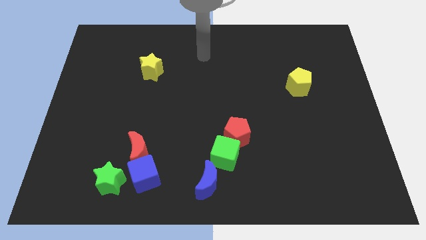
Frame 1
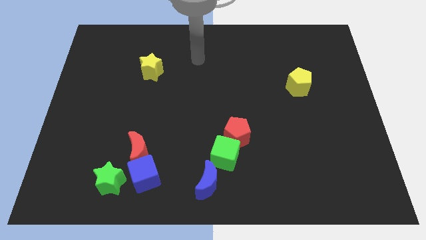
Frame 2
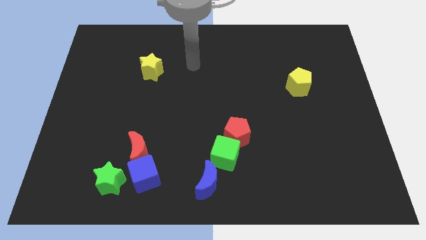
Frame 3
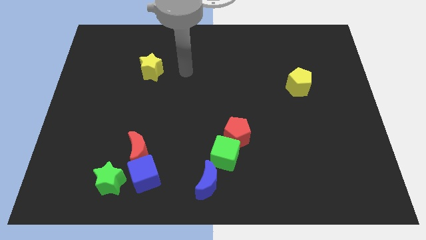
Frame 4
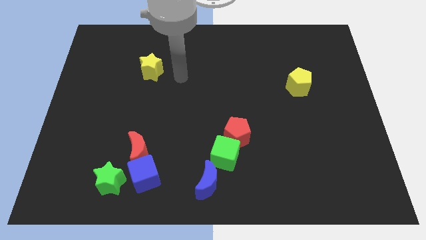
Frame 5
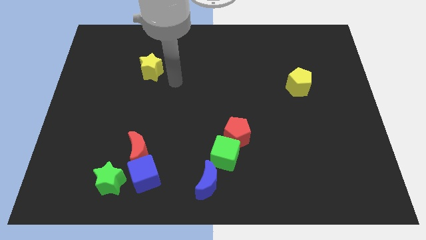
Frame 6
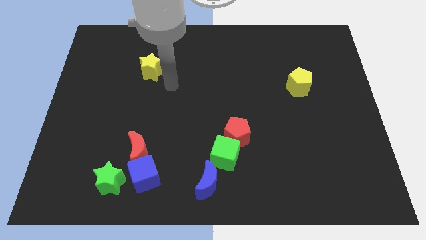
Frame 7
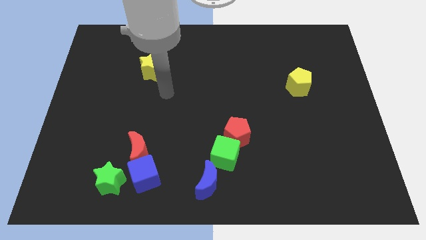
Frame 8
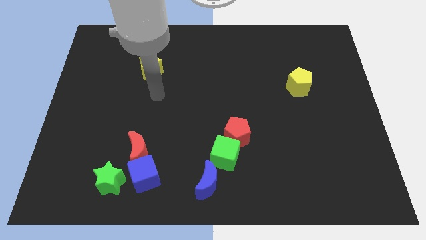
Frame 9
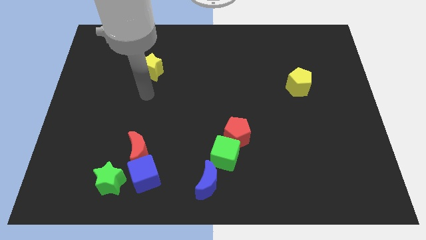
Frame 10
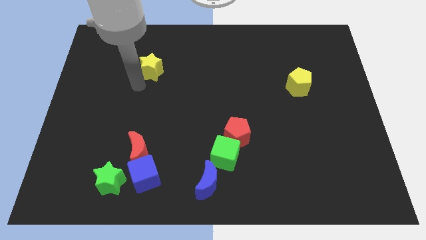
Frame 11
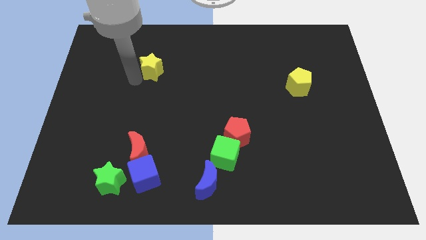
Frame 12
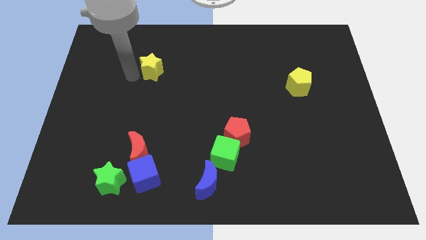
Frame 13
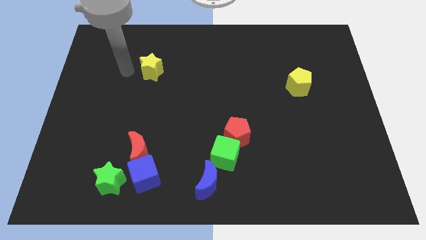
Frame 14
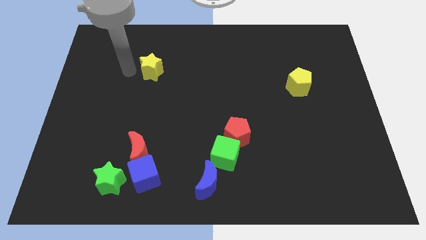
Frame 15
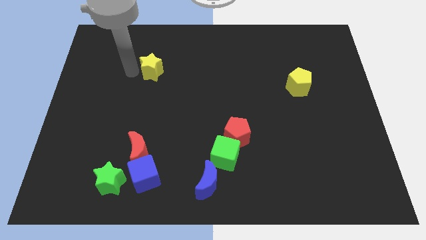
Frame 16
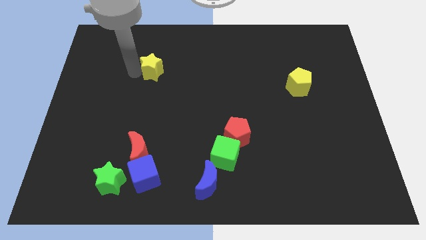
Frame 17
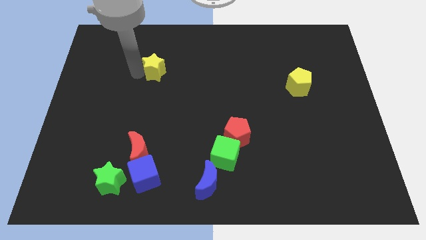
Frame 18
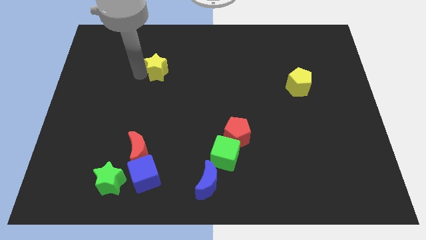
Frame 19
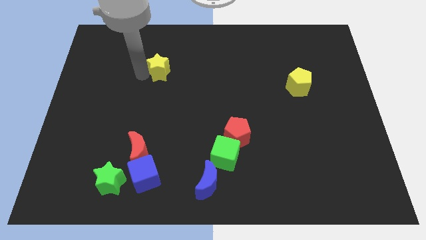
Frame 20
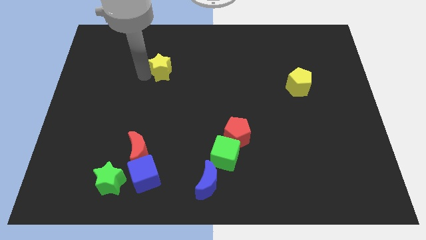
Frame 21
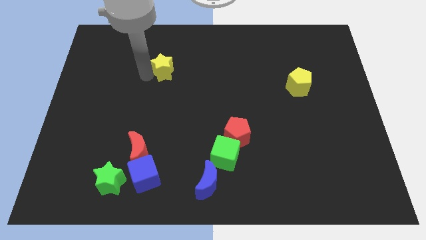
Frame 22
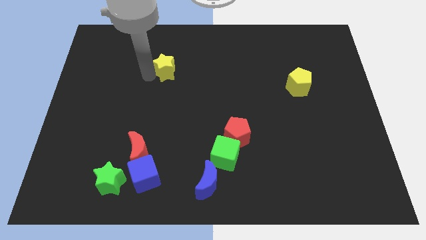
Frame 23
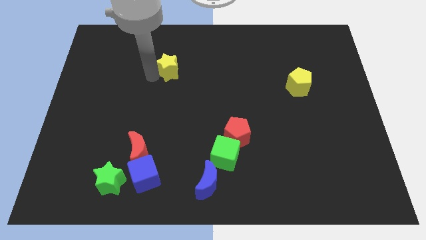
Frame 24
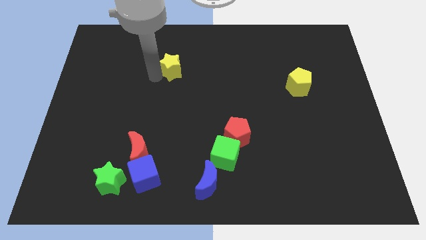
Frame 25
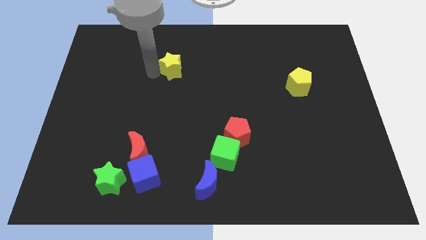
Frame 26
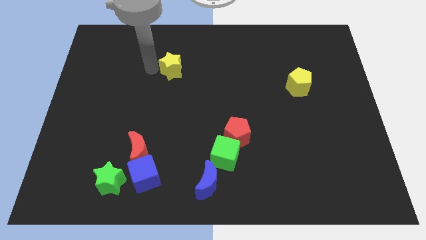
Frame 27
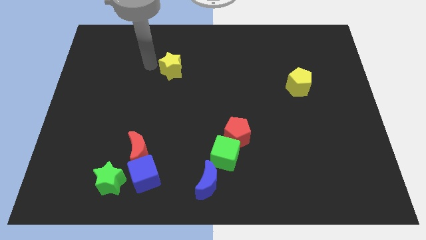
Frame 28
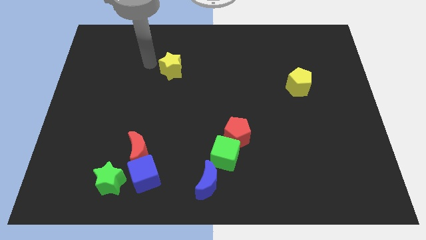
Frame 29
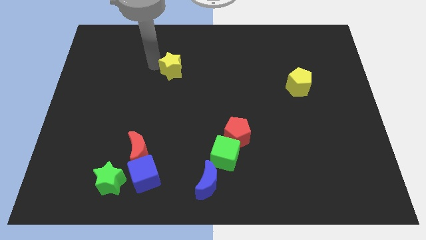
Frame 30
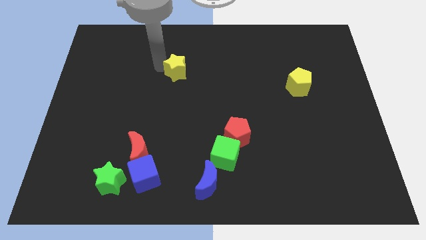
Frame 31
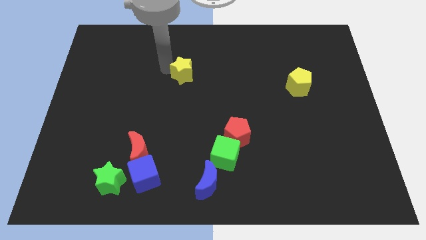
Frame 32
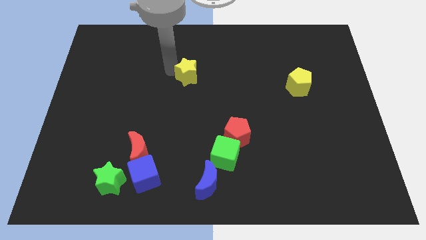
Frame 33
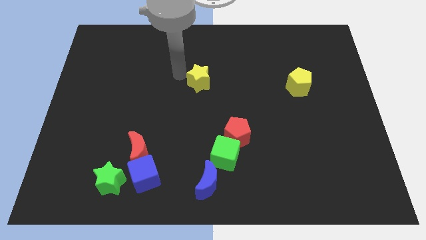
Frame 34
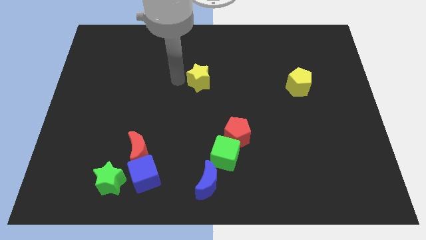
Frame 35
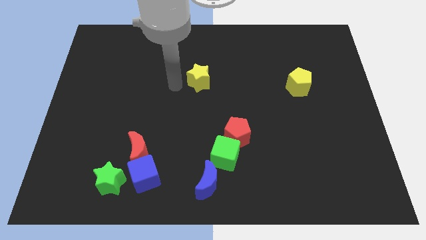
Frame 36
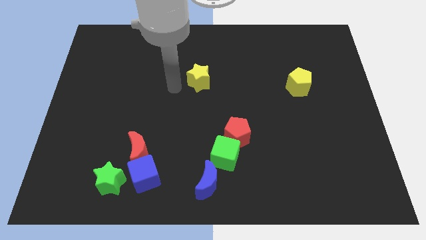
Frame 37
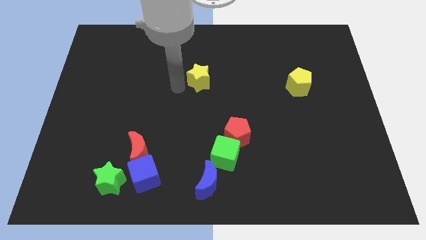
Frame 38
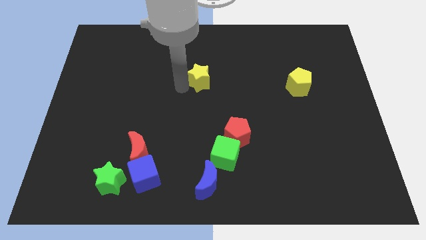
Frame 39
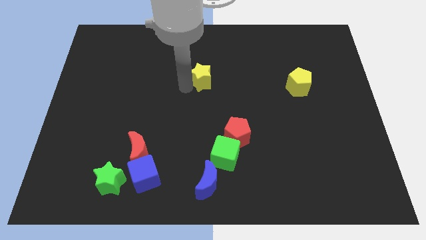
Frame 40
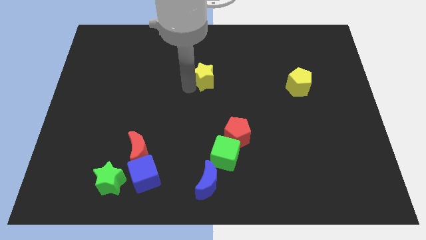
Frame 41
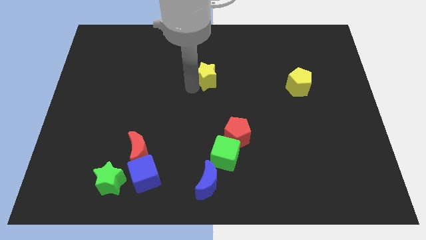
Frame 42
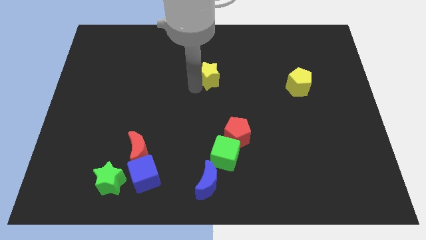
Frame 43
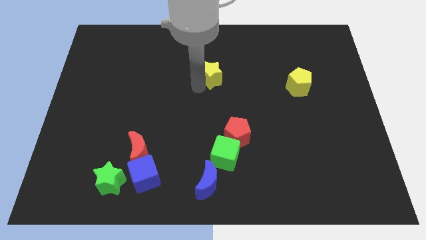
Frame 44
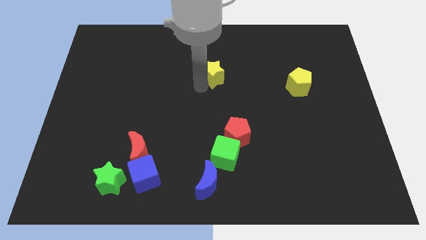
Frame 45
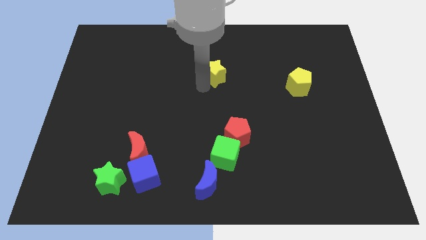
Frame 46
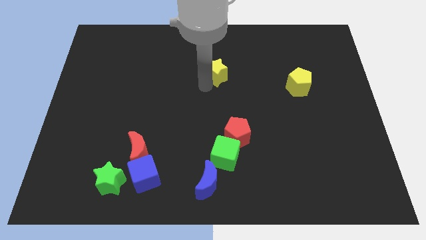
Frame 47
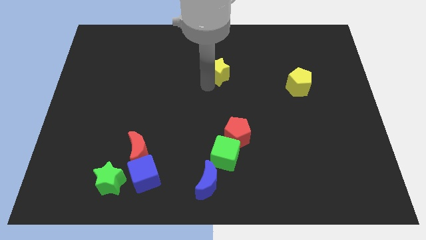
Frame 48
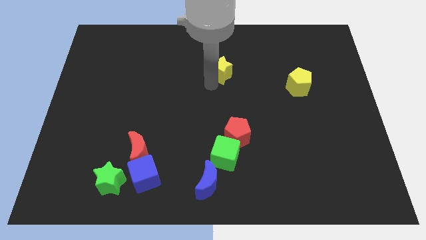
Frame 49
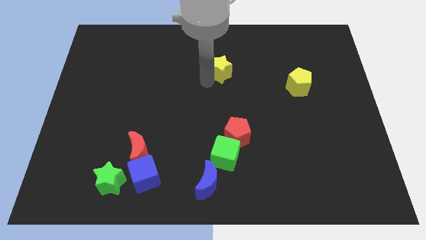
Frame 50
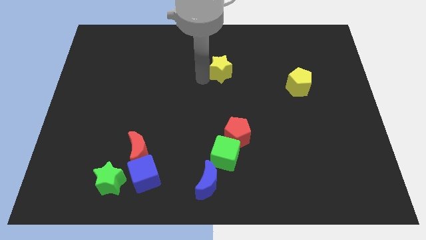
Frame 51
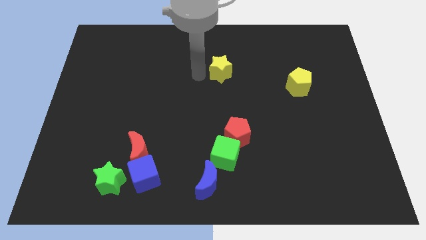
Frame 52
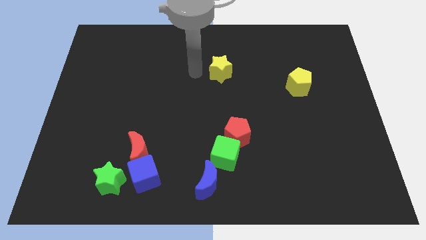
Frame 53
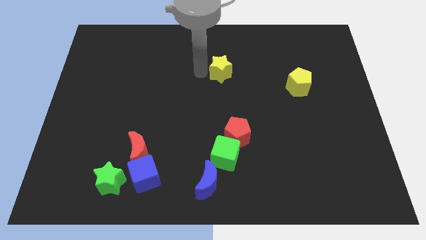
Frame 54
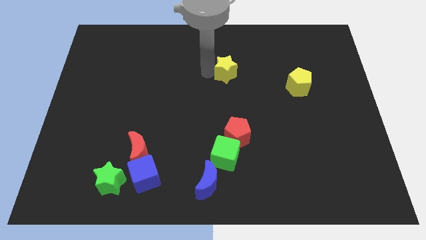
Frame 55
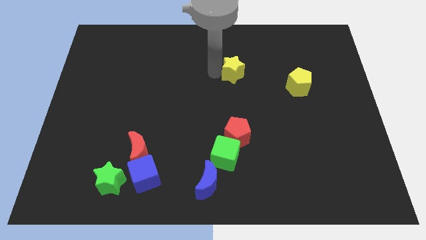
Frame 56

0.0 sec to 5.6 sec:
move the yellow star to the right

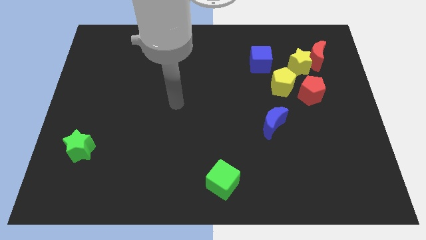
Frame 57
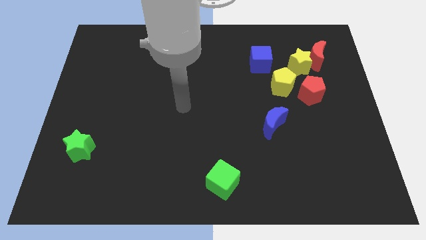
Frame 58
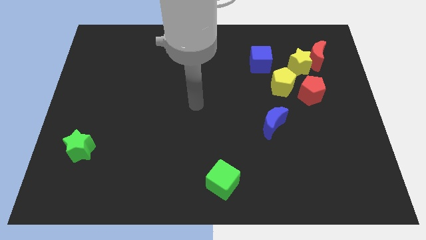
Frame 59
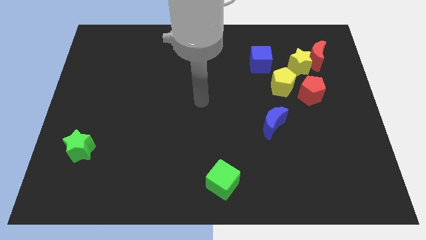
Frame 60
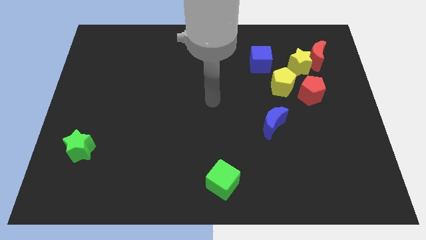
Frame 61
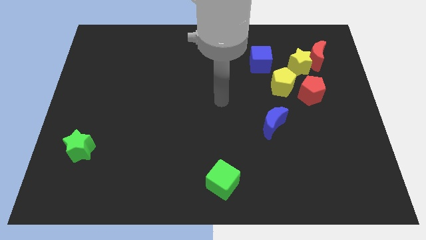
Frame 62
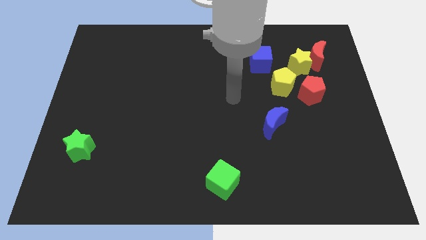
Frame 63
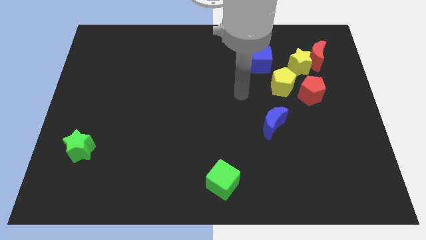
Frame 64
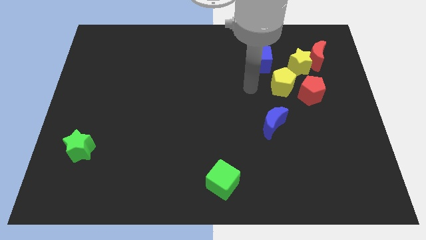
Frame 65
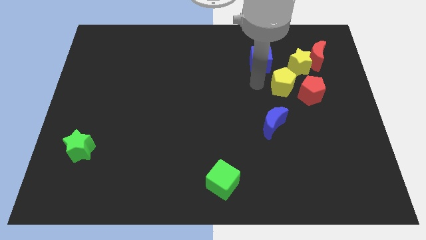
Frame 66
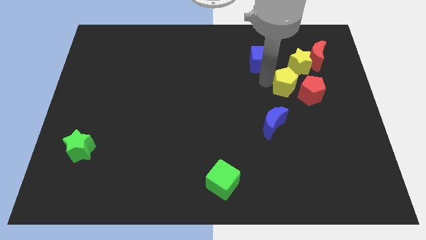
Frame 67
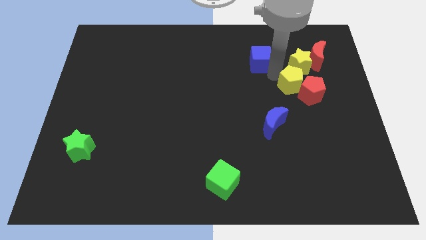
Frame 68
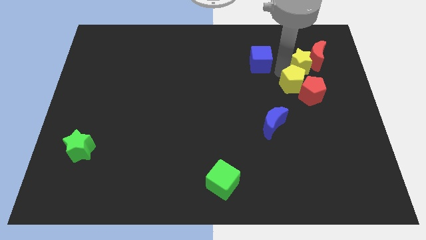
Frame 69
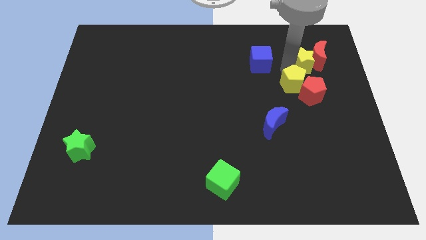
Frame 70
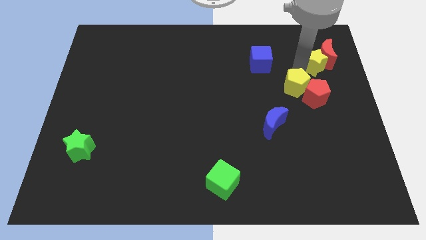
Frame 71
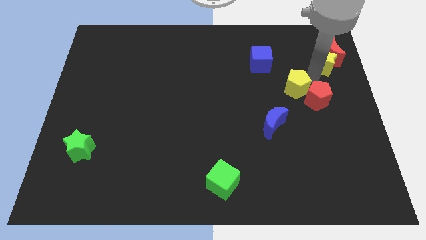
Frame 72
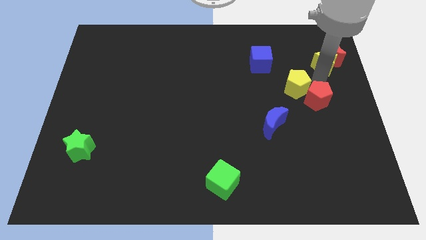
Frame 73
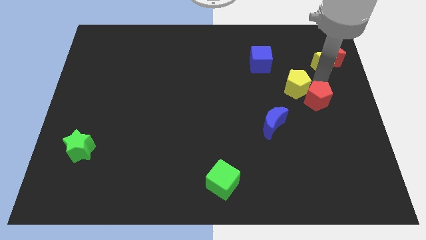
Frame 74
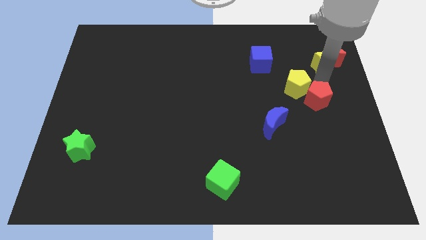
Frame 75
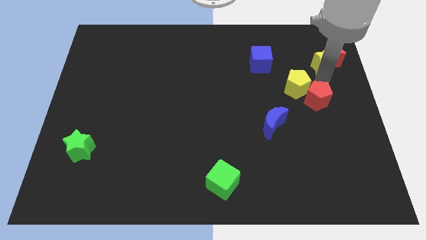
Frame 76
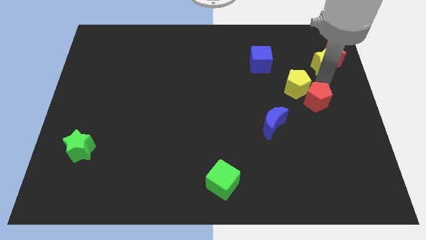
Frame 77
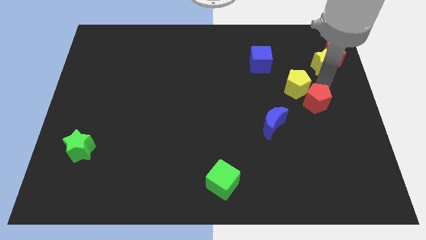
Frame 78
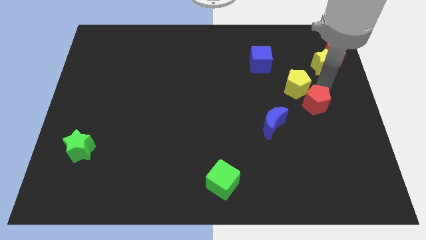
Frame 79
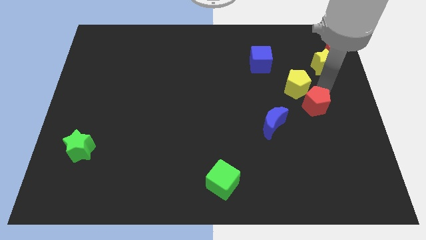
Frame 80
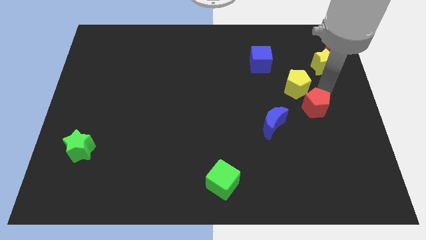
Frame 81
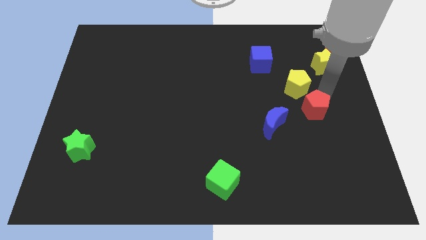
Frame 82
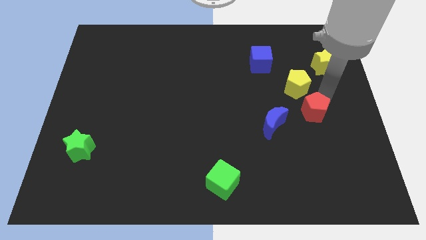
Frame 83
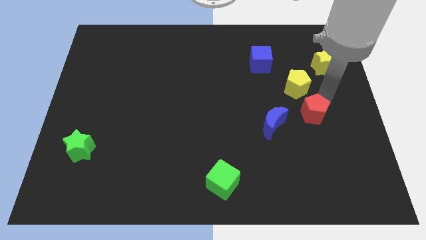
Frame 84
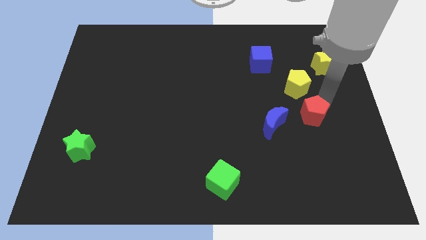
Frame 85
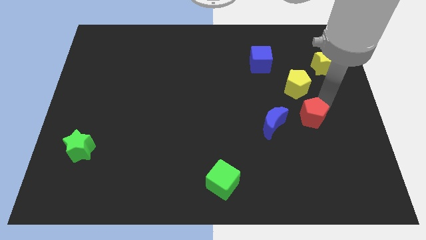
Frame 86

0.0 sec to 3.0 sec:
move the red pentagon downwards a little
